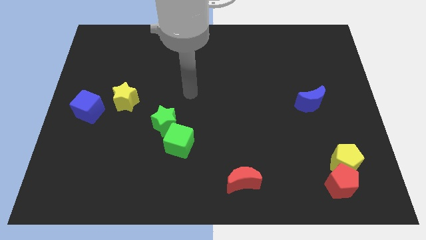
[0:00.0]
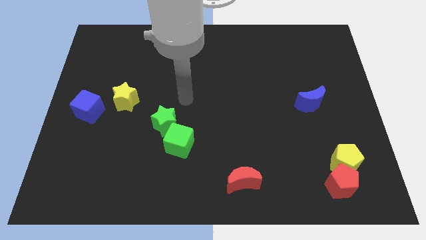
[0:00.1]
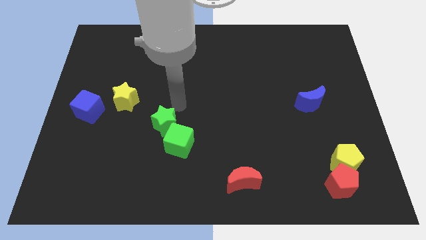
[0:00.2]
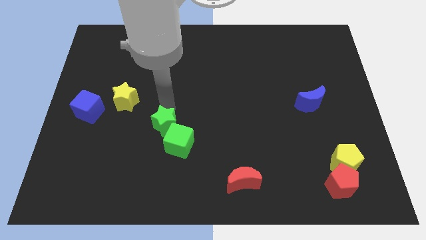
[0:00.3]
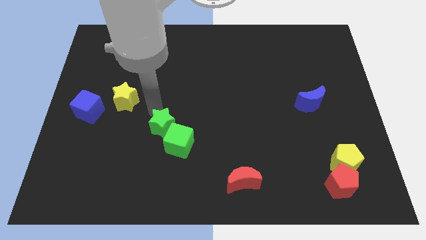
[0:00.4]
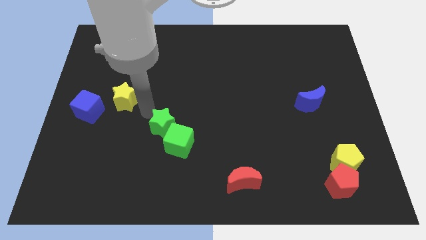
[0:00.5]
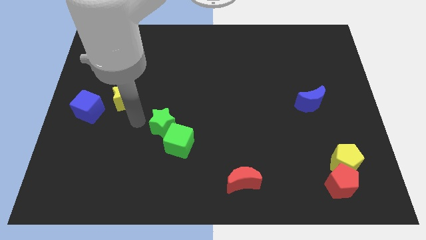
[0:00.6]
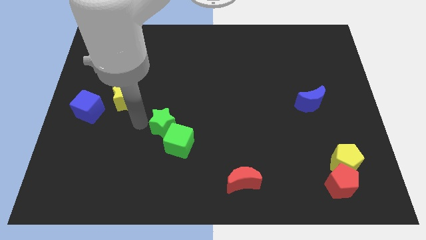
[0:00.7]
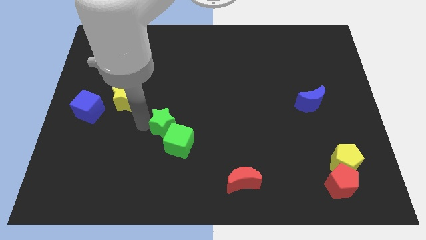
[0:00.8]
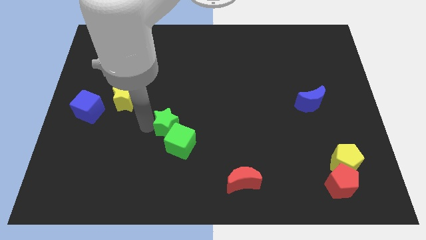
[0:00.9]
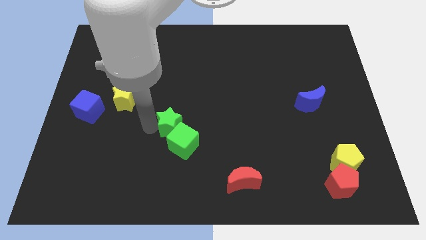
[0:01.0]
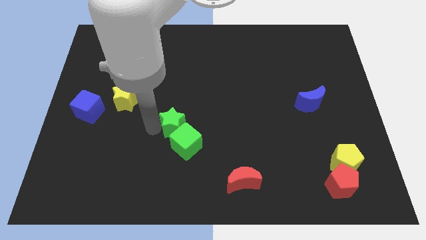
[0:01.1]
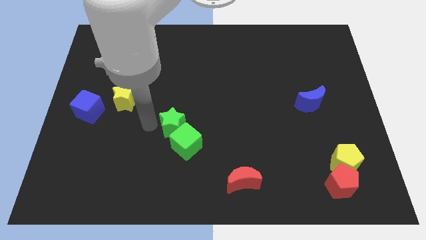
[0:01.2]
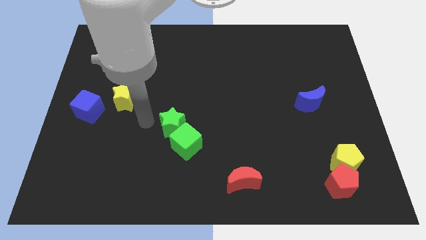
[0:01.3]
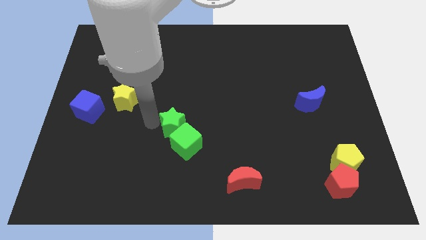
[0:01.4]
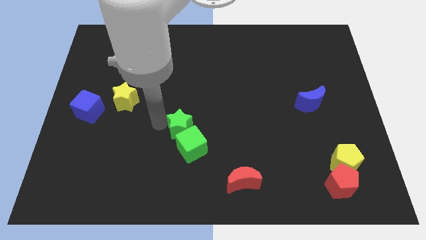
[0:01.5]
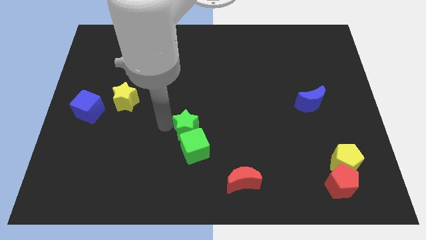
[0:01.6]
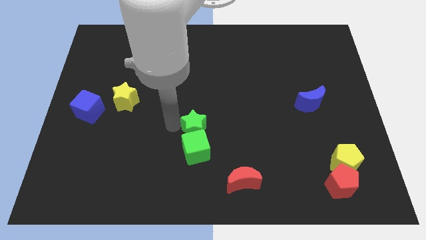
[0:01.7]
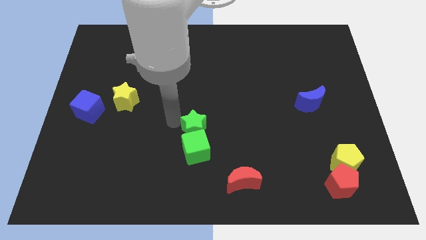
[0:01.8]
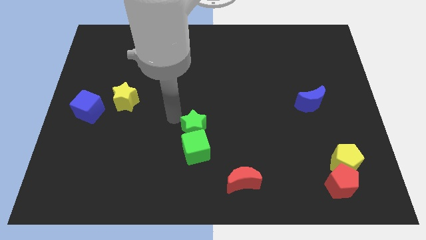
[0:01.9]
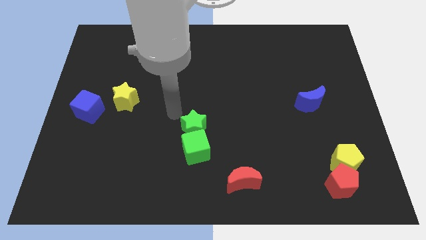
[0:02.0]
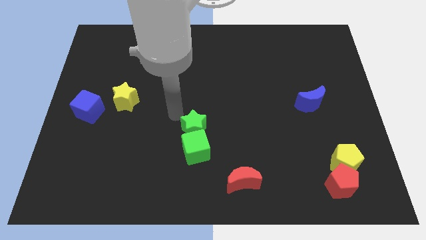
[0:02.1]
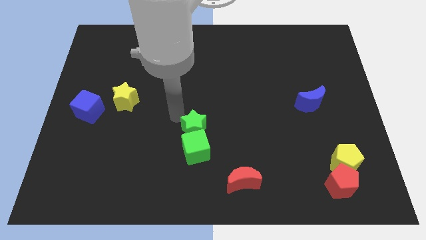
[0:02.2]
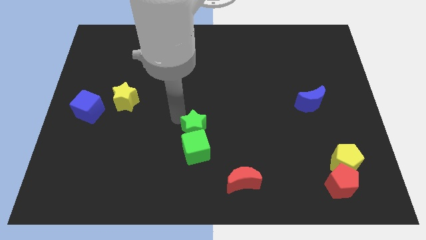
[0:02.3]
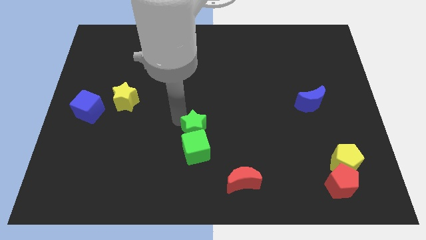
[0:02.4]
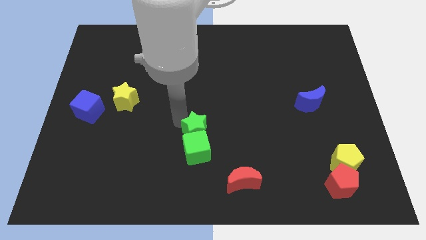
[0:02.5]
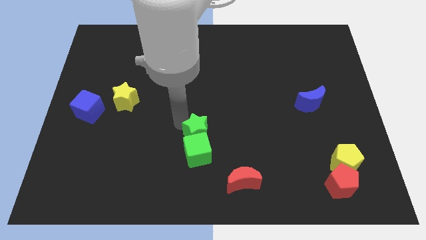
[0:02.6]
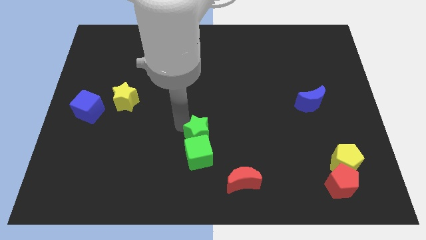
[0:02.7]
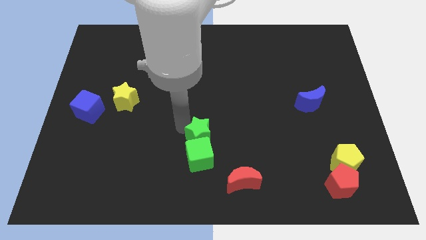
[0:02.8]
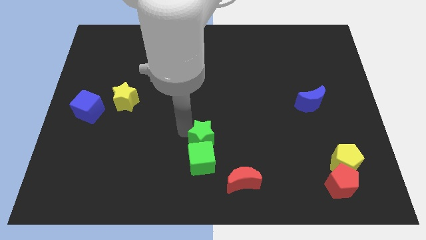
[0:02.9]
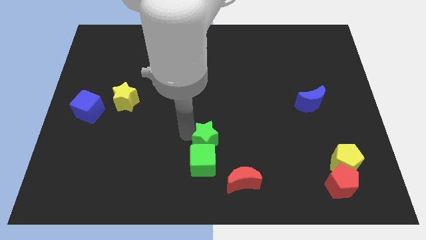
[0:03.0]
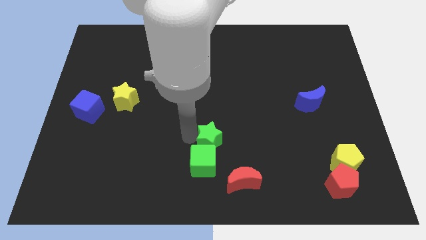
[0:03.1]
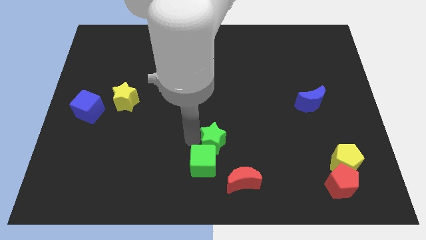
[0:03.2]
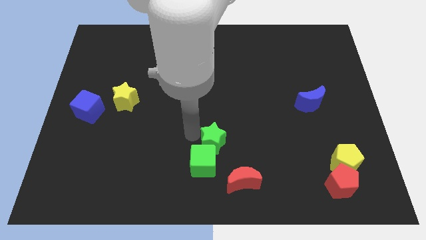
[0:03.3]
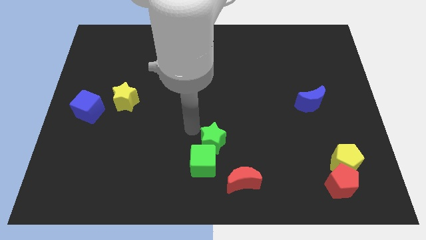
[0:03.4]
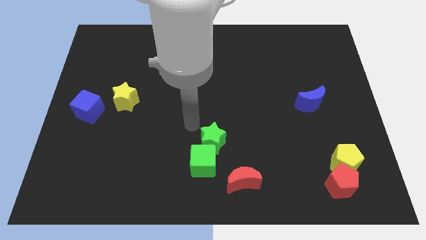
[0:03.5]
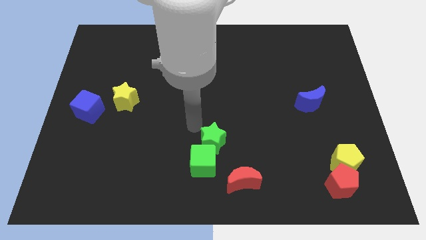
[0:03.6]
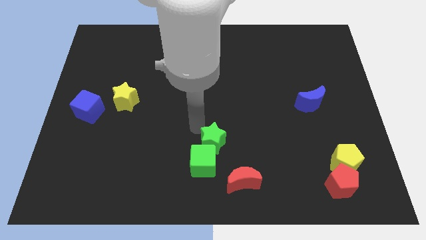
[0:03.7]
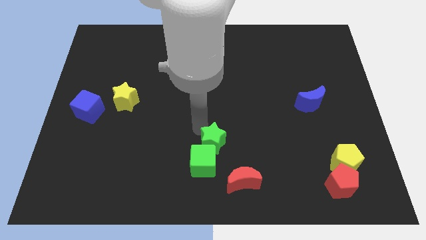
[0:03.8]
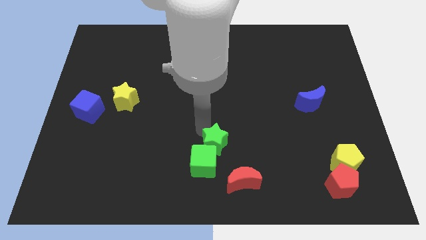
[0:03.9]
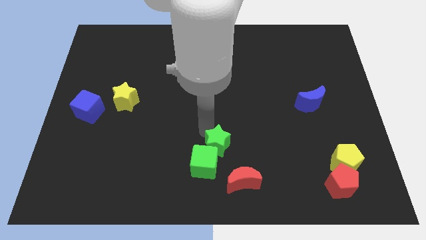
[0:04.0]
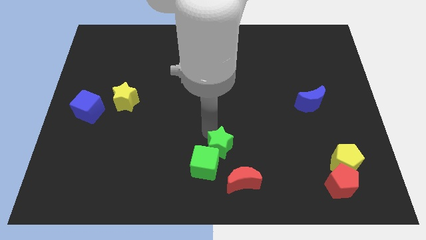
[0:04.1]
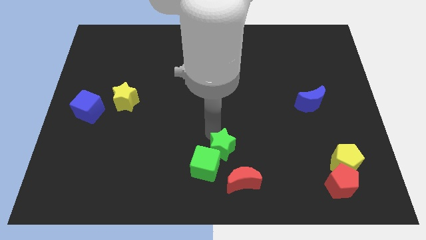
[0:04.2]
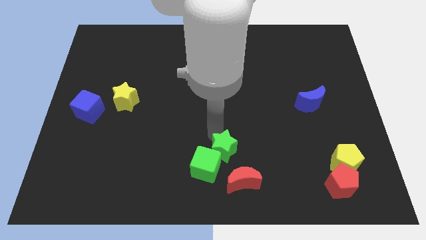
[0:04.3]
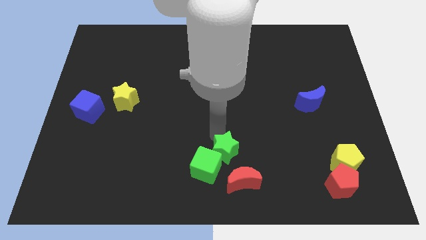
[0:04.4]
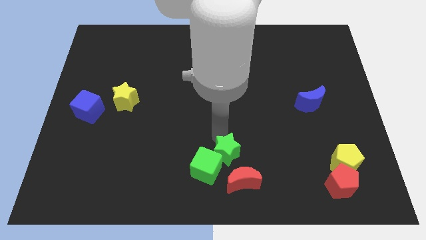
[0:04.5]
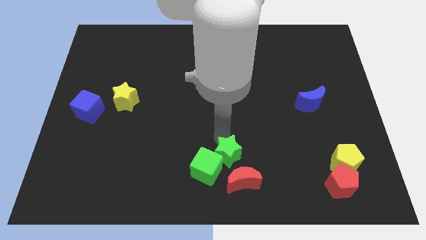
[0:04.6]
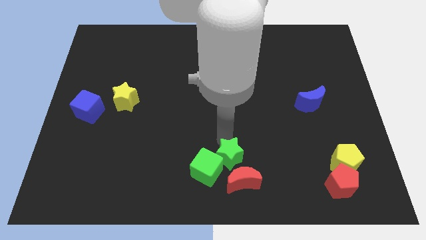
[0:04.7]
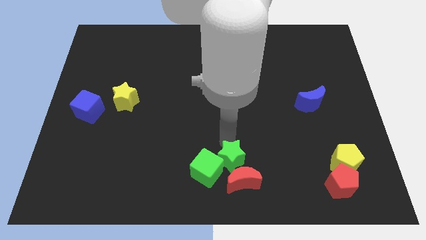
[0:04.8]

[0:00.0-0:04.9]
put the green star towards the red moon

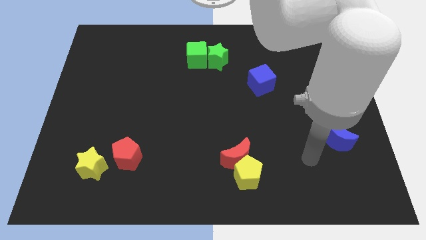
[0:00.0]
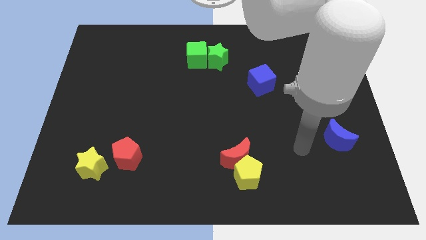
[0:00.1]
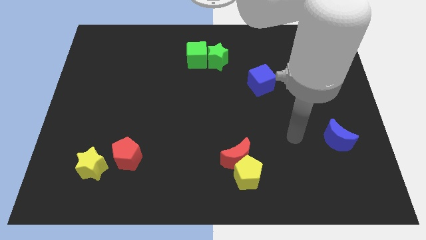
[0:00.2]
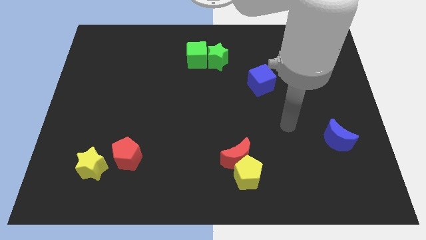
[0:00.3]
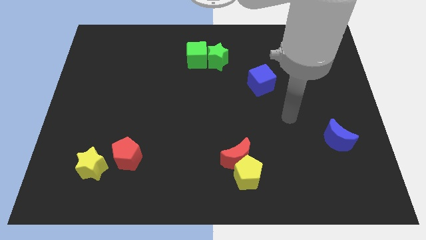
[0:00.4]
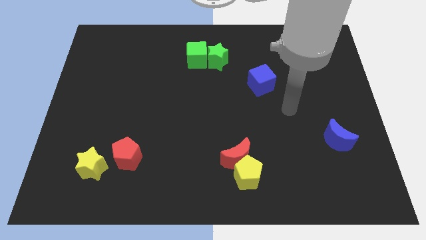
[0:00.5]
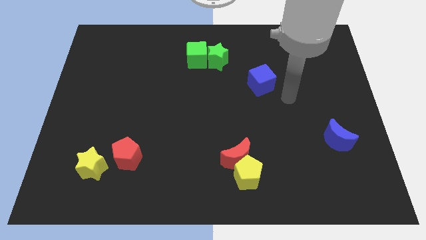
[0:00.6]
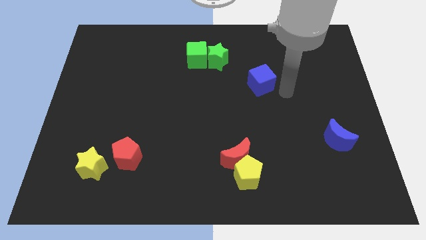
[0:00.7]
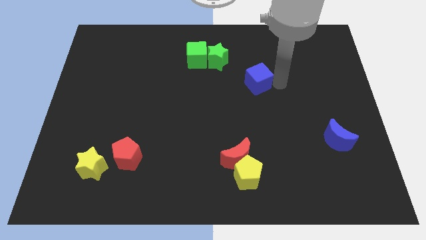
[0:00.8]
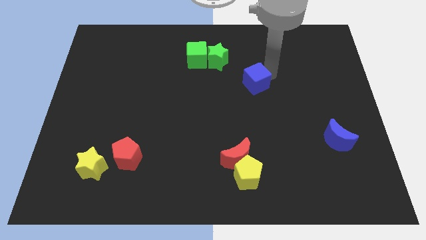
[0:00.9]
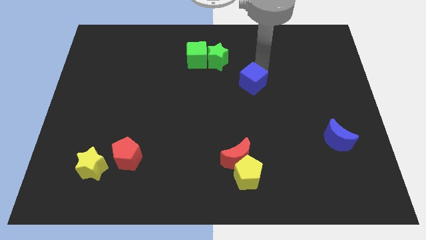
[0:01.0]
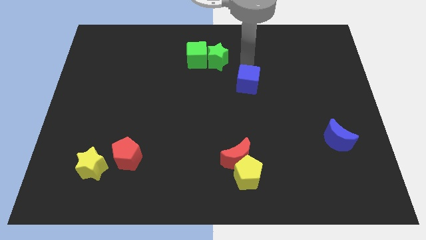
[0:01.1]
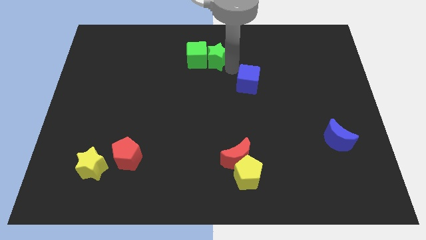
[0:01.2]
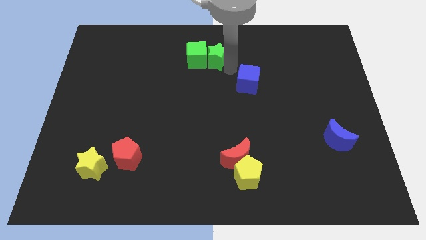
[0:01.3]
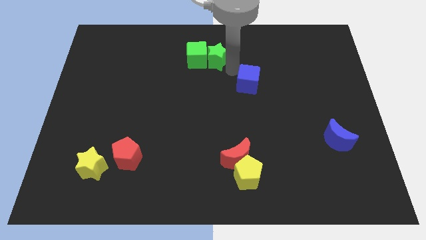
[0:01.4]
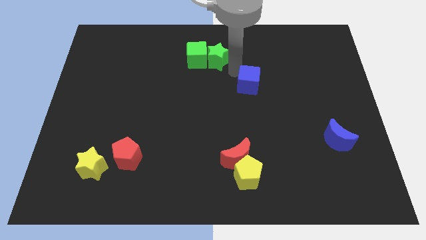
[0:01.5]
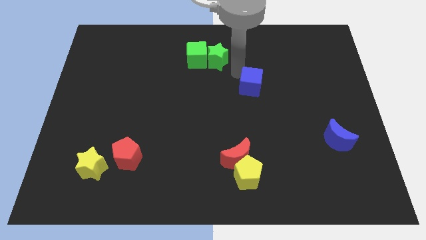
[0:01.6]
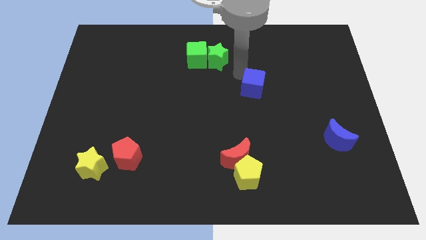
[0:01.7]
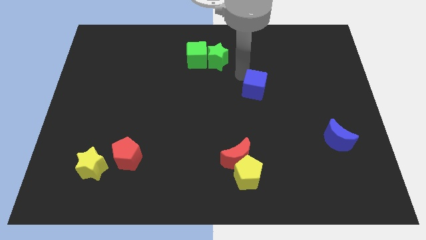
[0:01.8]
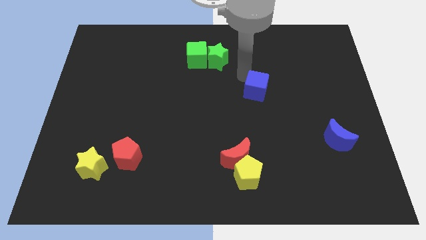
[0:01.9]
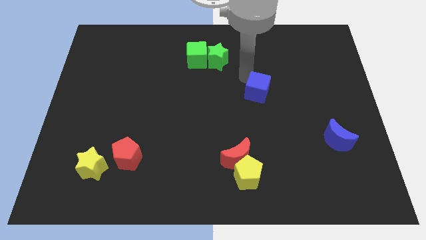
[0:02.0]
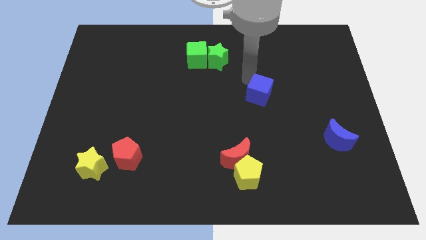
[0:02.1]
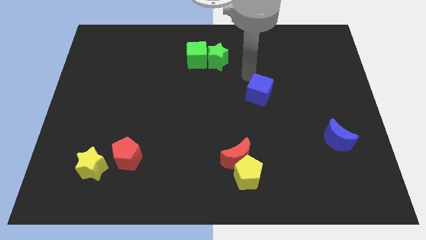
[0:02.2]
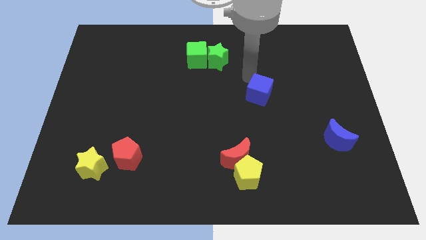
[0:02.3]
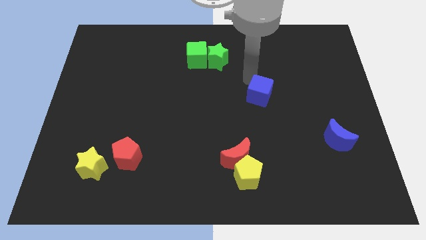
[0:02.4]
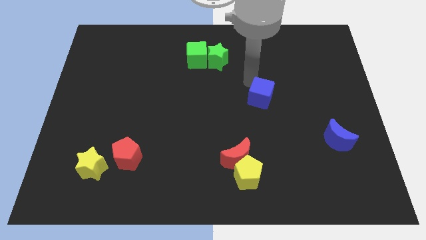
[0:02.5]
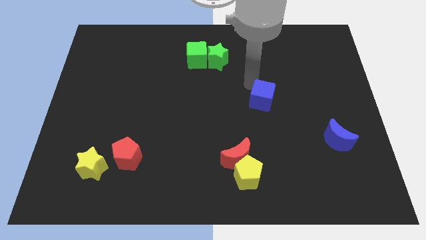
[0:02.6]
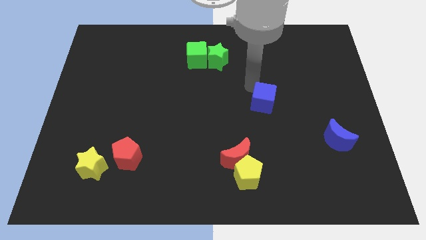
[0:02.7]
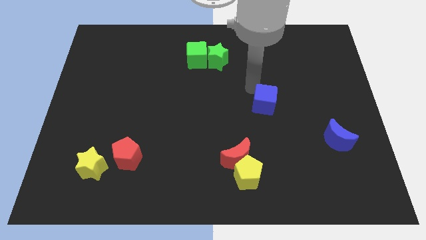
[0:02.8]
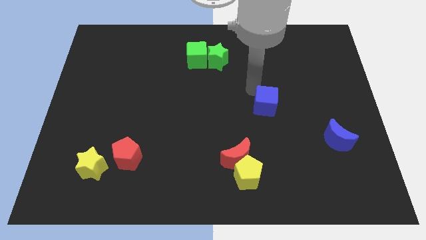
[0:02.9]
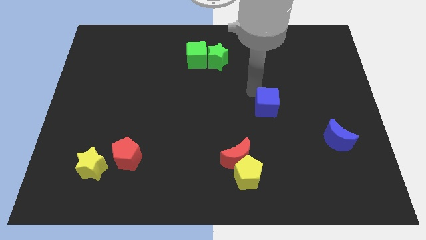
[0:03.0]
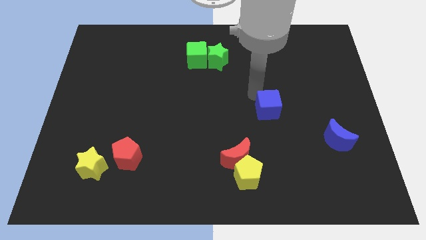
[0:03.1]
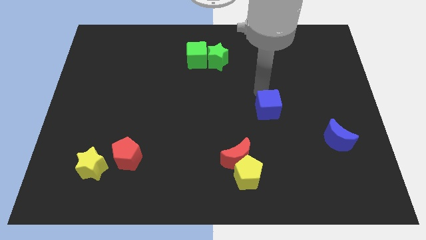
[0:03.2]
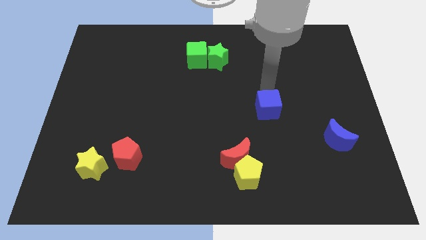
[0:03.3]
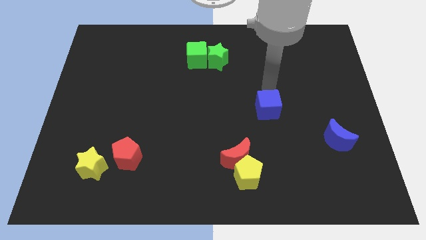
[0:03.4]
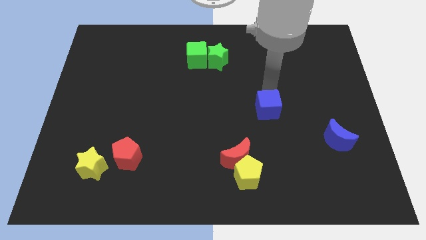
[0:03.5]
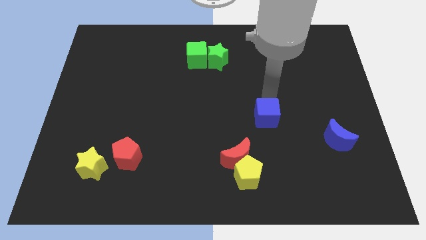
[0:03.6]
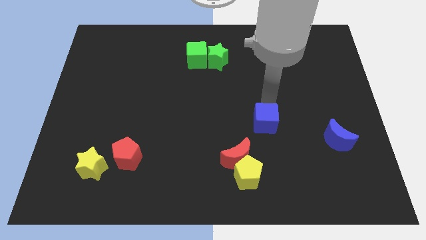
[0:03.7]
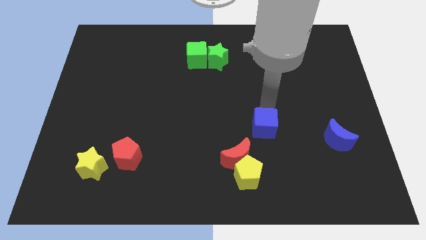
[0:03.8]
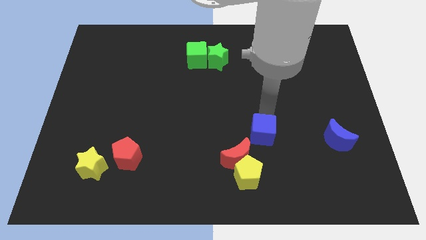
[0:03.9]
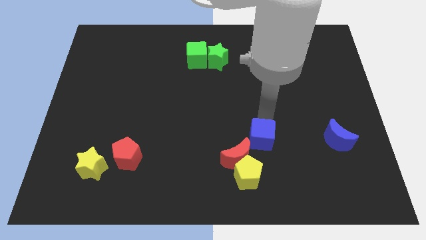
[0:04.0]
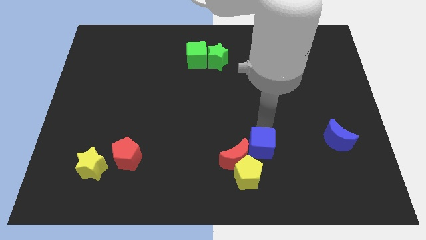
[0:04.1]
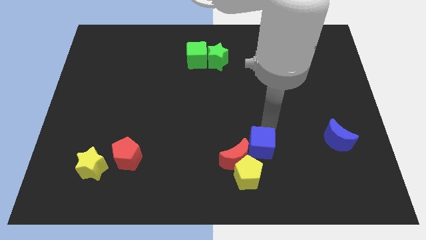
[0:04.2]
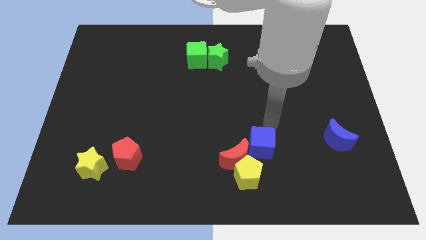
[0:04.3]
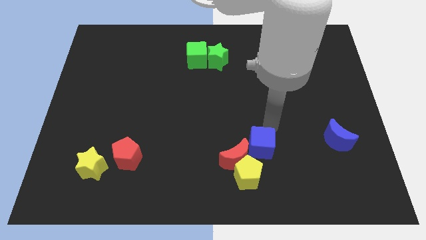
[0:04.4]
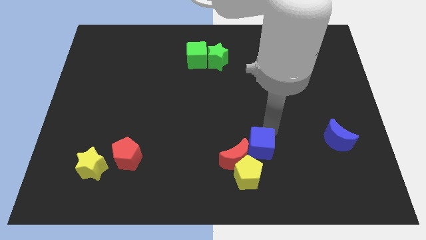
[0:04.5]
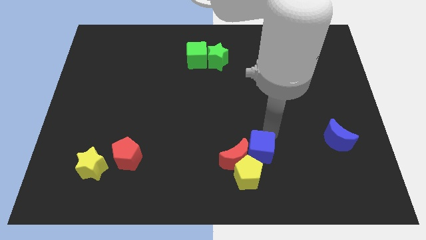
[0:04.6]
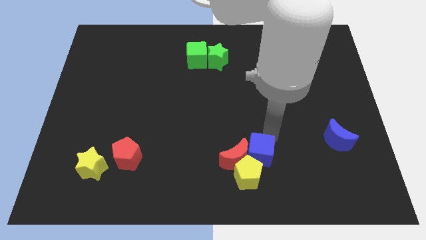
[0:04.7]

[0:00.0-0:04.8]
push the blue cube to the yellow pentagon
